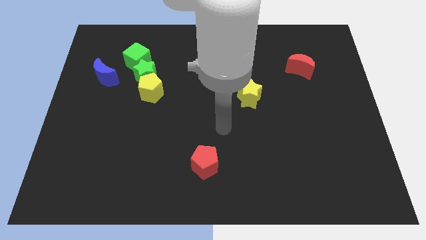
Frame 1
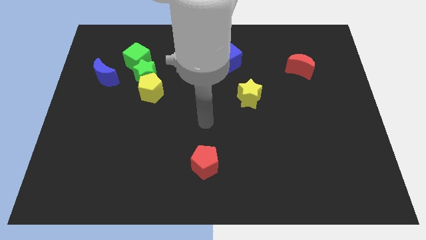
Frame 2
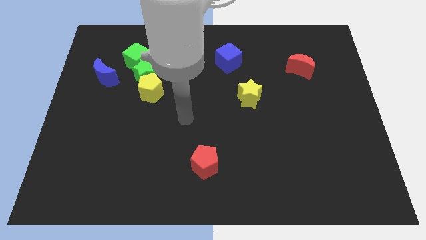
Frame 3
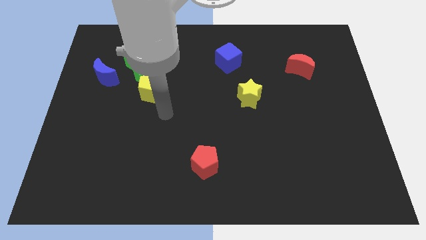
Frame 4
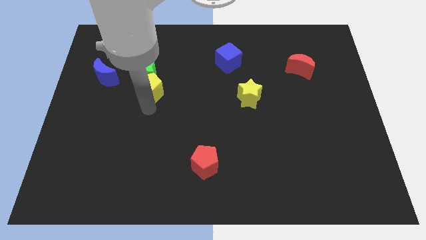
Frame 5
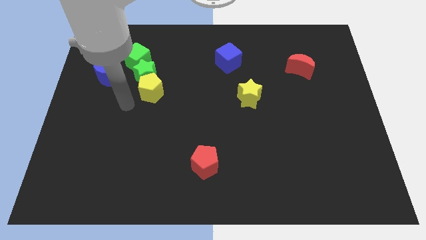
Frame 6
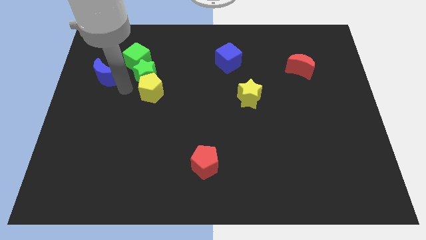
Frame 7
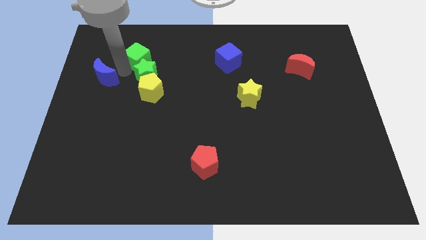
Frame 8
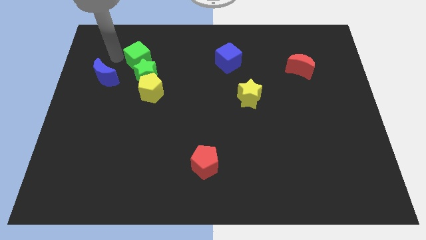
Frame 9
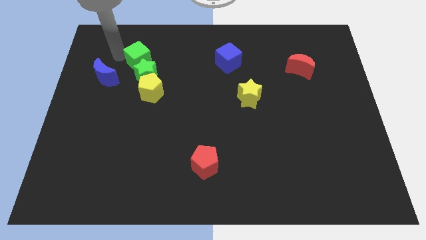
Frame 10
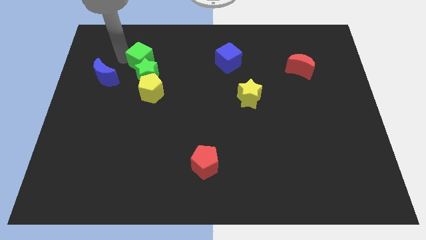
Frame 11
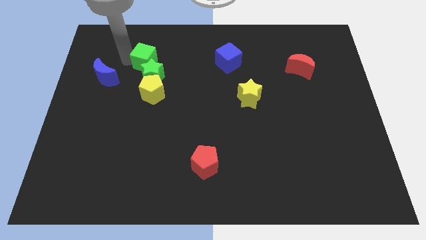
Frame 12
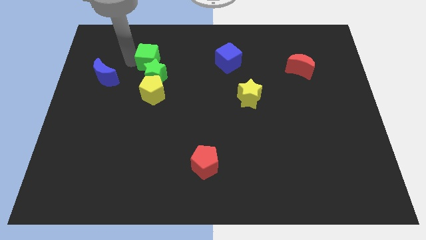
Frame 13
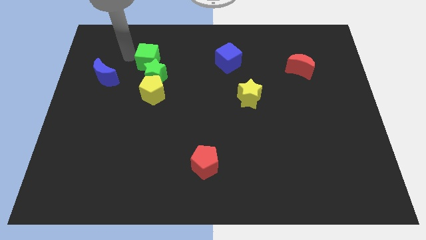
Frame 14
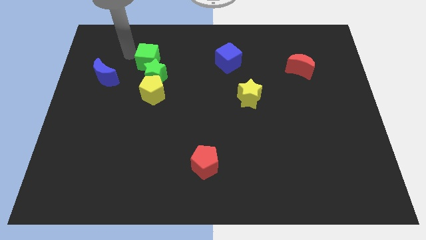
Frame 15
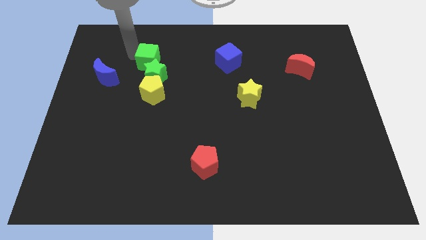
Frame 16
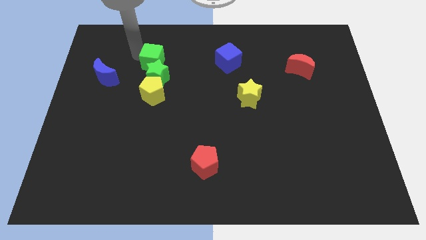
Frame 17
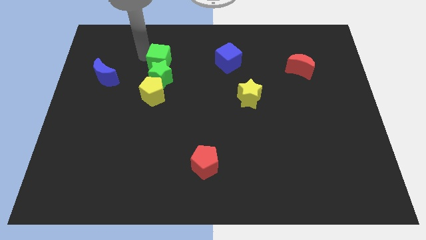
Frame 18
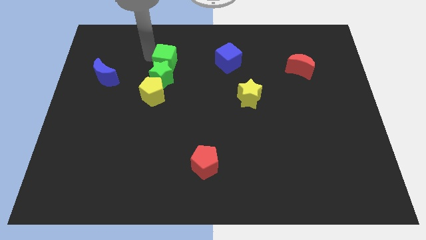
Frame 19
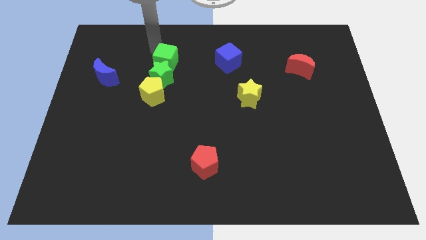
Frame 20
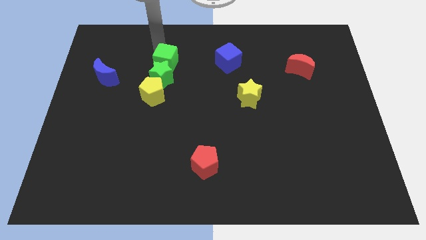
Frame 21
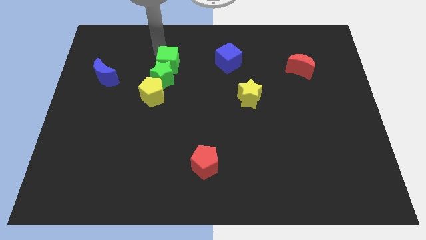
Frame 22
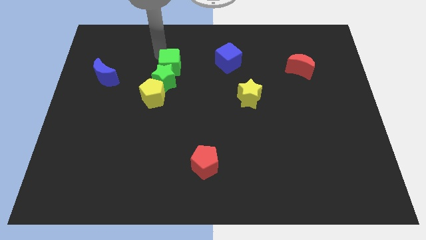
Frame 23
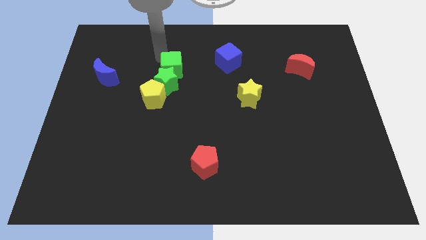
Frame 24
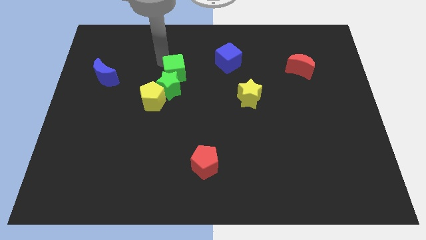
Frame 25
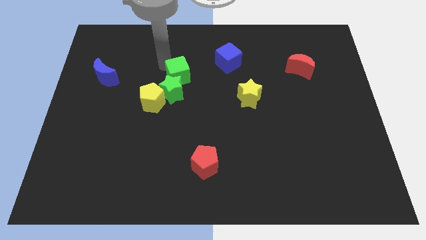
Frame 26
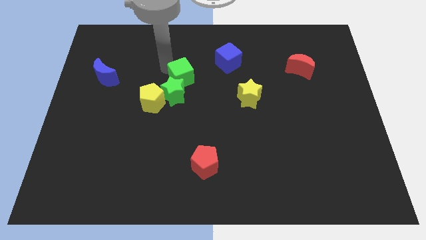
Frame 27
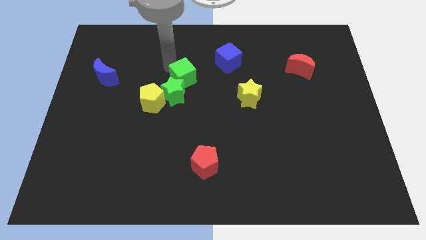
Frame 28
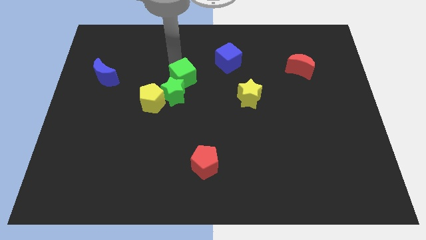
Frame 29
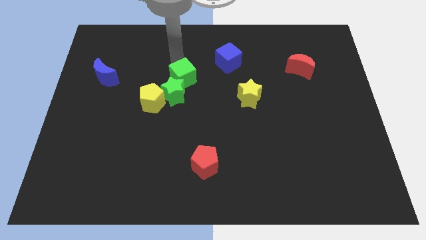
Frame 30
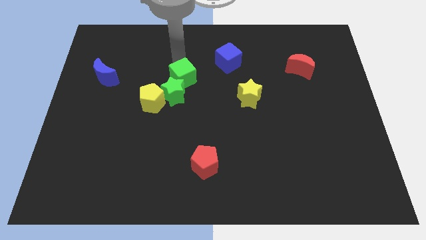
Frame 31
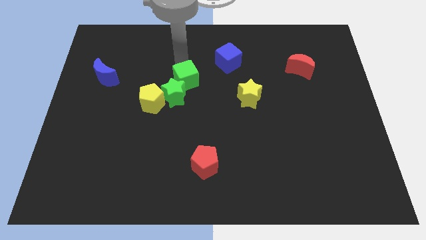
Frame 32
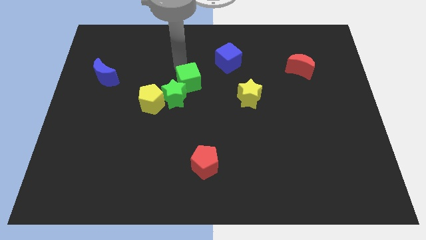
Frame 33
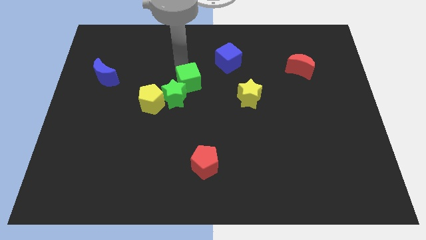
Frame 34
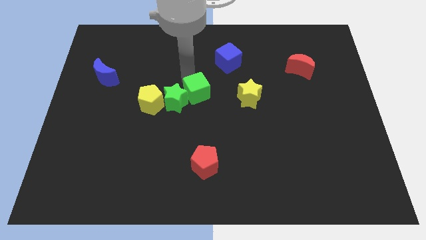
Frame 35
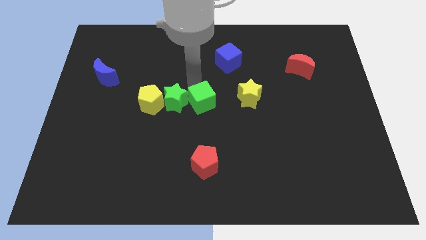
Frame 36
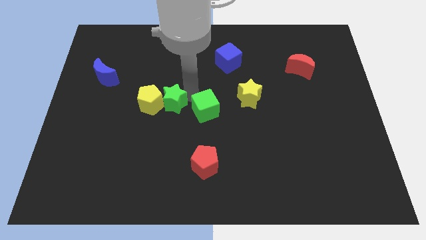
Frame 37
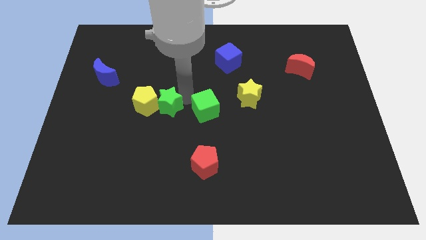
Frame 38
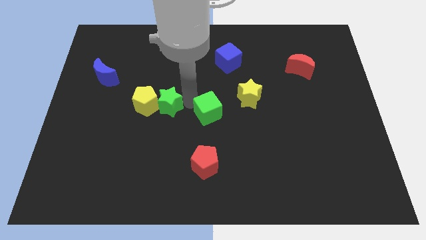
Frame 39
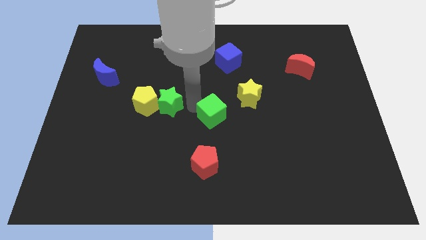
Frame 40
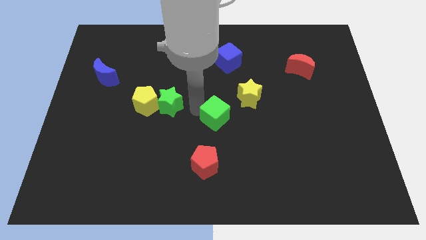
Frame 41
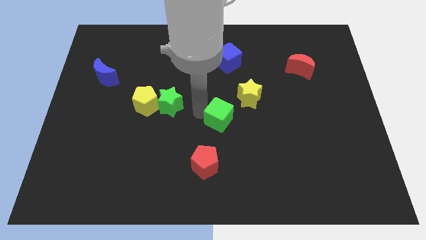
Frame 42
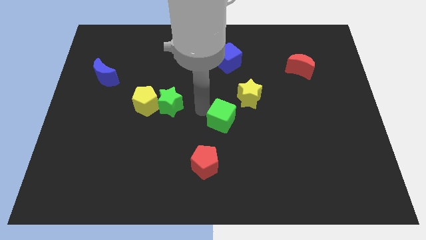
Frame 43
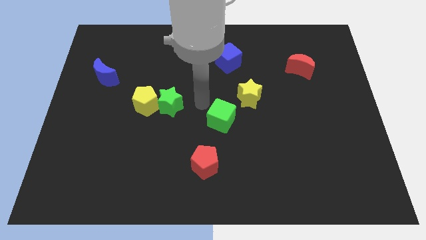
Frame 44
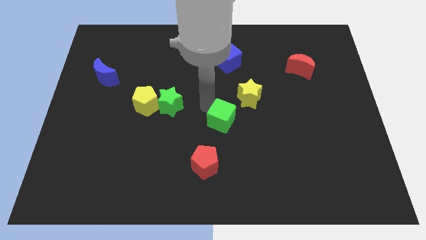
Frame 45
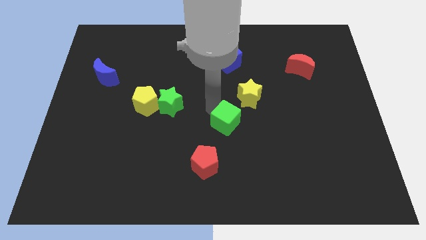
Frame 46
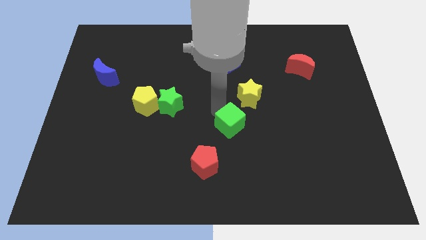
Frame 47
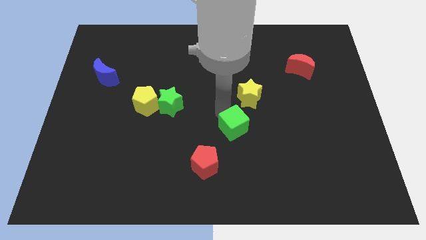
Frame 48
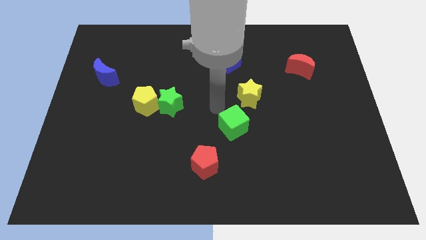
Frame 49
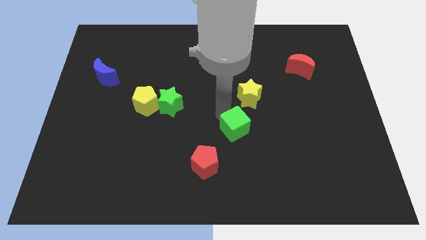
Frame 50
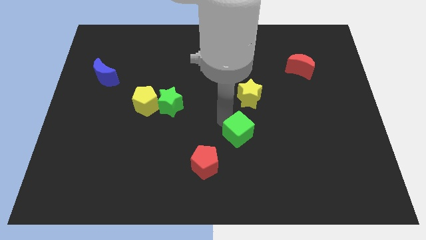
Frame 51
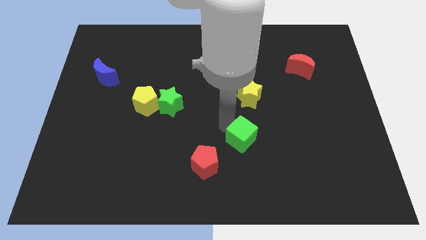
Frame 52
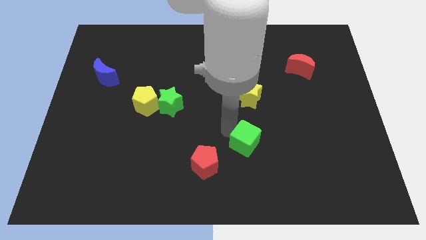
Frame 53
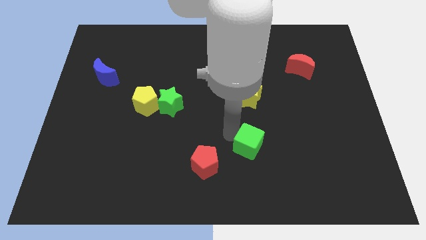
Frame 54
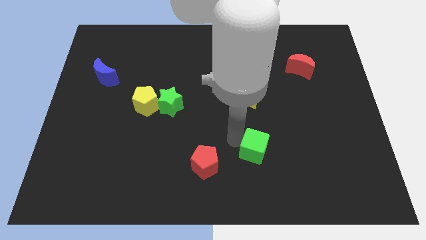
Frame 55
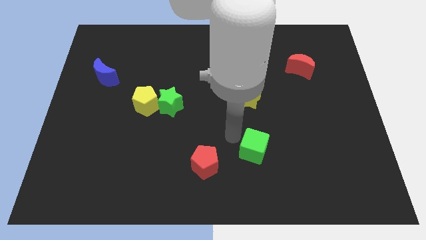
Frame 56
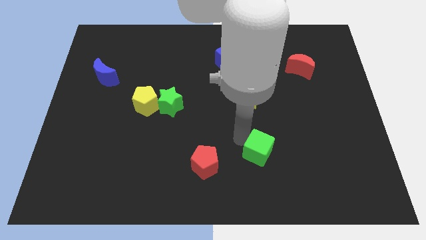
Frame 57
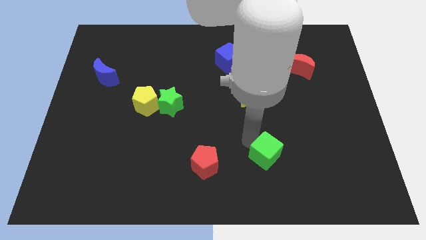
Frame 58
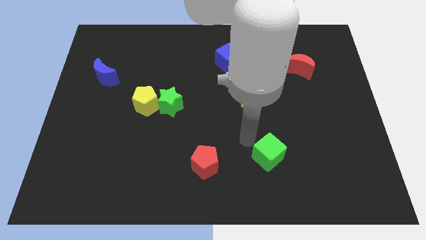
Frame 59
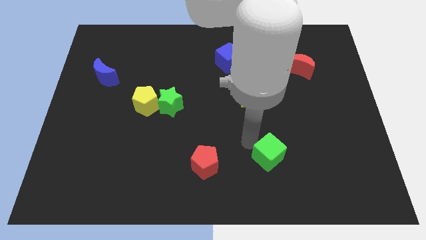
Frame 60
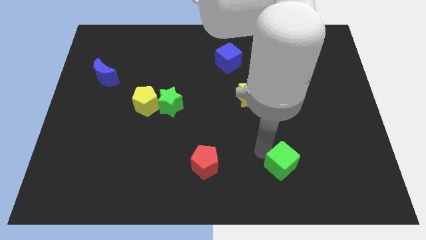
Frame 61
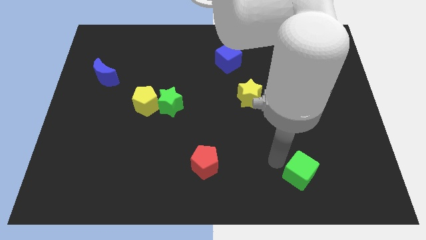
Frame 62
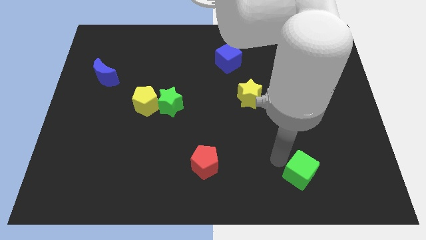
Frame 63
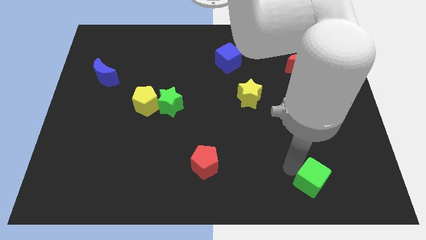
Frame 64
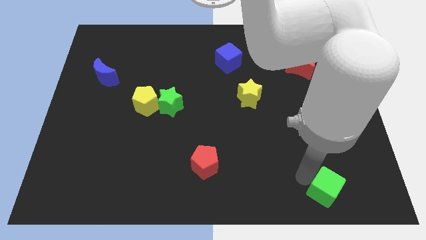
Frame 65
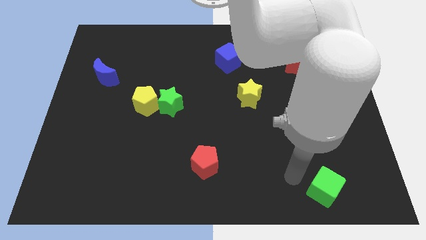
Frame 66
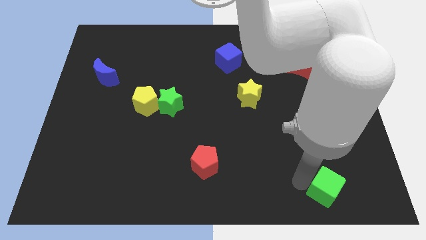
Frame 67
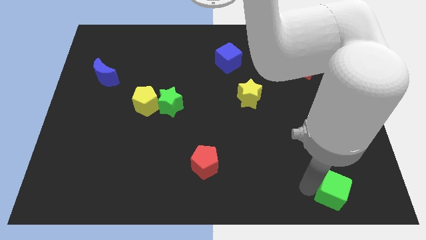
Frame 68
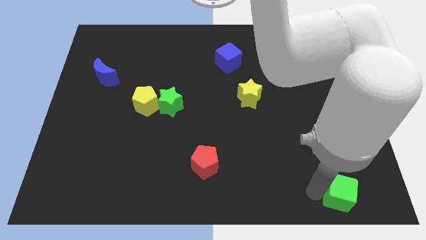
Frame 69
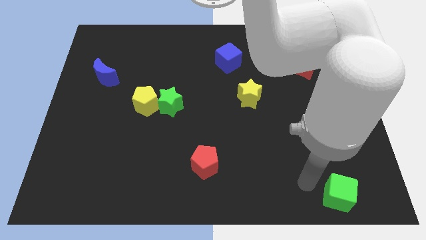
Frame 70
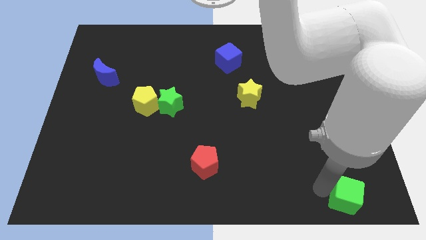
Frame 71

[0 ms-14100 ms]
slide the green cube to the bottom right corner

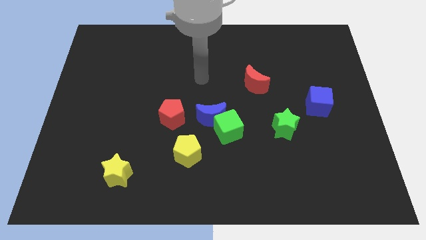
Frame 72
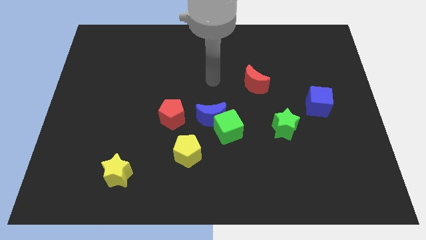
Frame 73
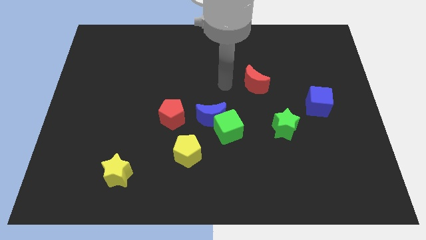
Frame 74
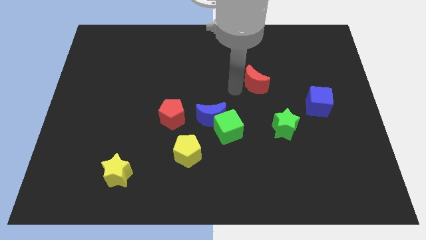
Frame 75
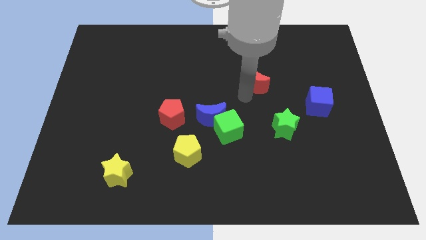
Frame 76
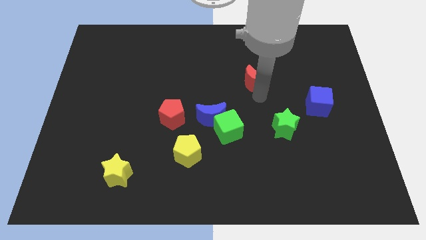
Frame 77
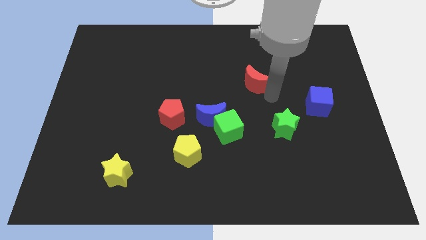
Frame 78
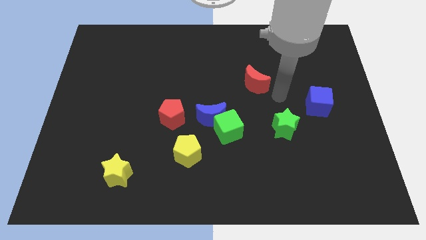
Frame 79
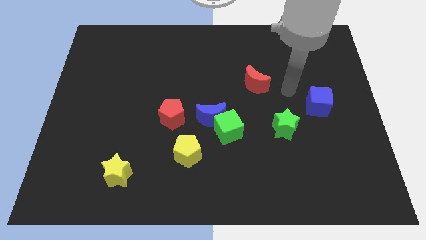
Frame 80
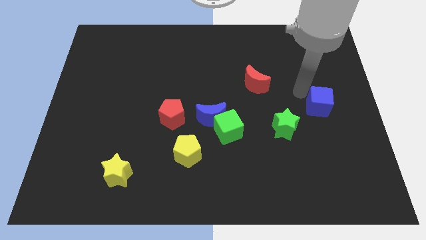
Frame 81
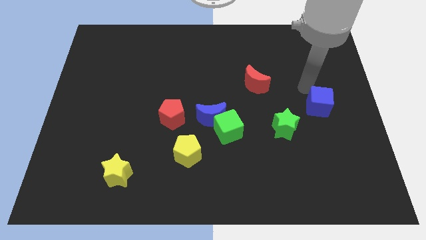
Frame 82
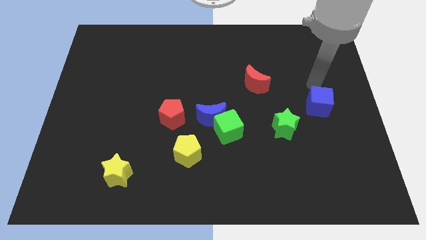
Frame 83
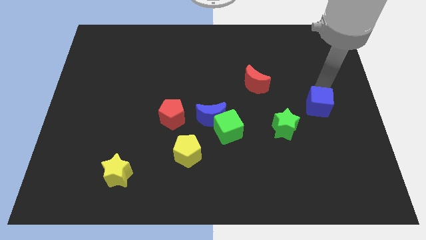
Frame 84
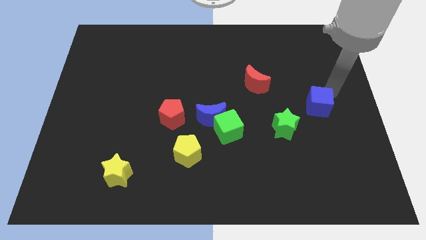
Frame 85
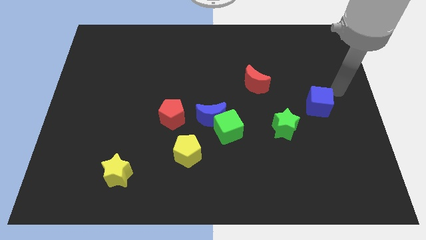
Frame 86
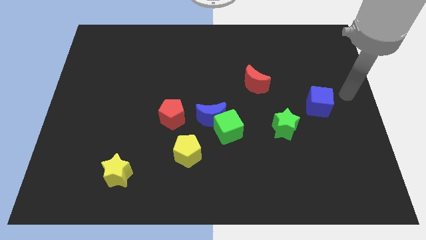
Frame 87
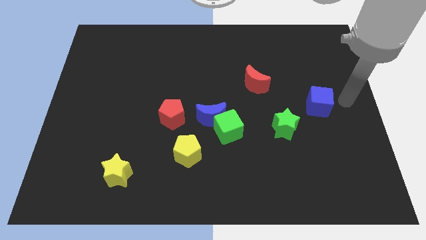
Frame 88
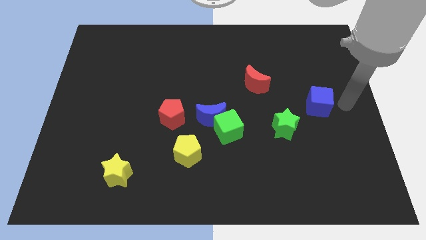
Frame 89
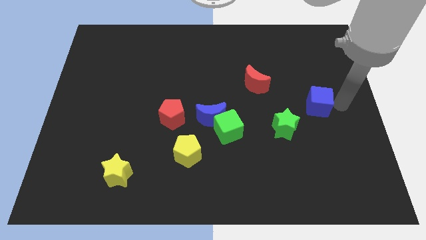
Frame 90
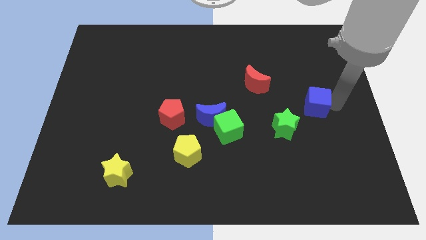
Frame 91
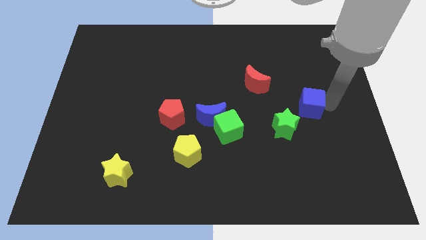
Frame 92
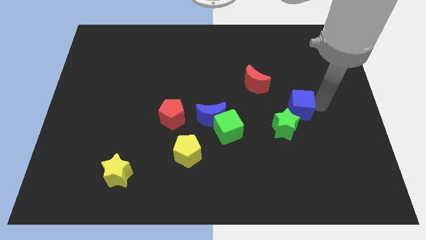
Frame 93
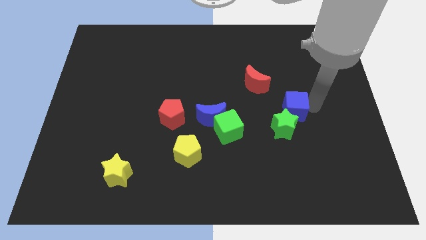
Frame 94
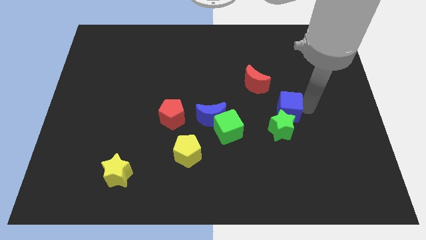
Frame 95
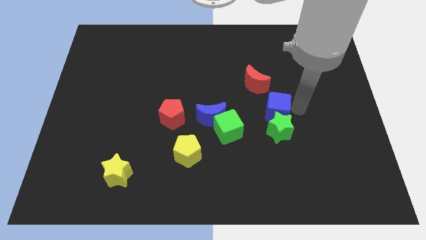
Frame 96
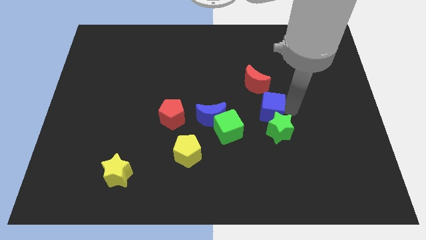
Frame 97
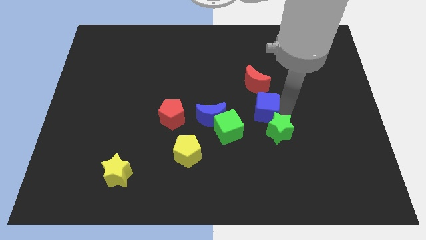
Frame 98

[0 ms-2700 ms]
put the blue cube to the middle
